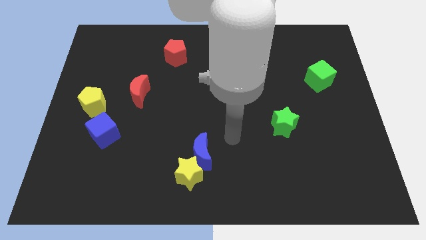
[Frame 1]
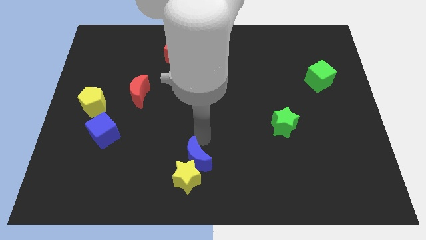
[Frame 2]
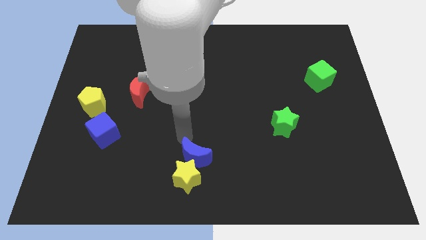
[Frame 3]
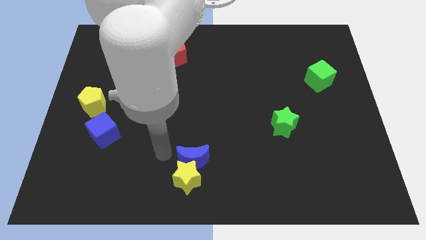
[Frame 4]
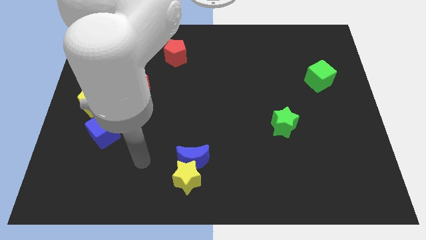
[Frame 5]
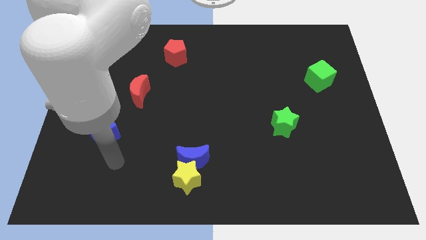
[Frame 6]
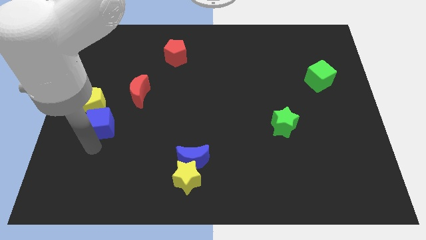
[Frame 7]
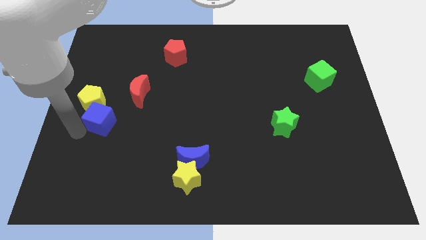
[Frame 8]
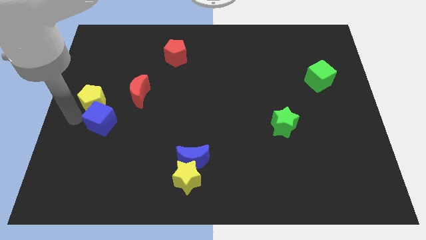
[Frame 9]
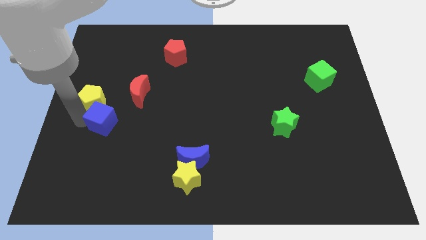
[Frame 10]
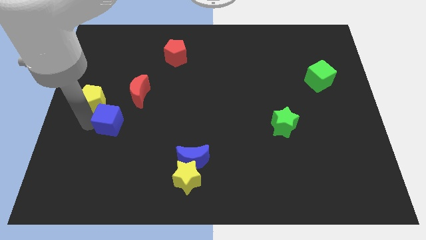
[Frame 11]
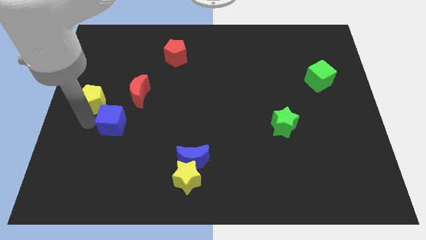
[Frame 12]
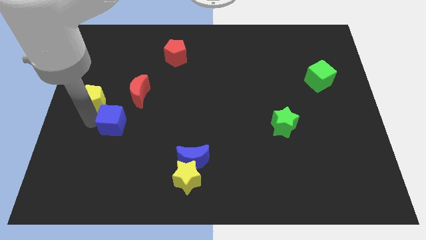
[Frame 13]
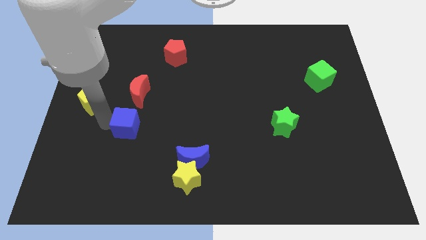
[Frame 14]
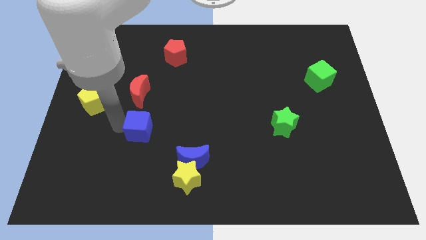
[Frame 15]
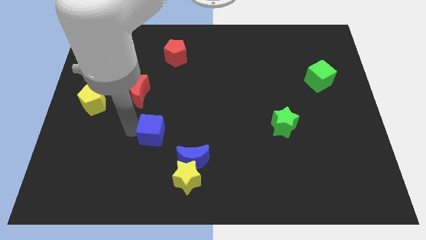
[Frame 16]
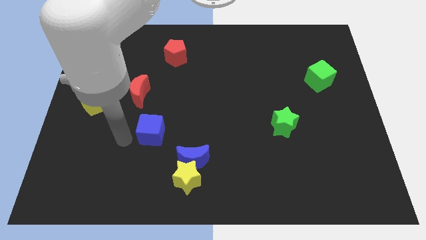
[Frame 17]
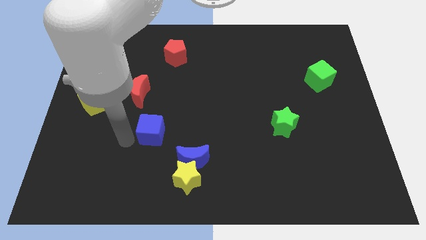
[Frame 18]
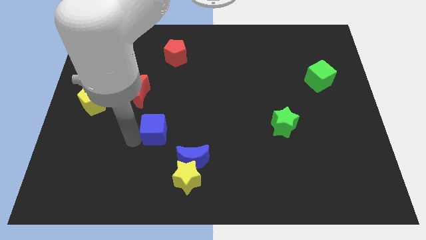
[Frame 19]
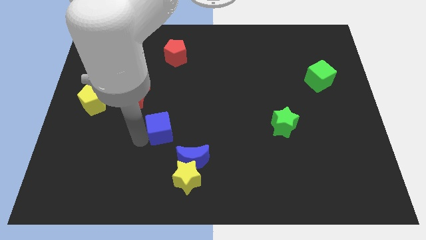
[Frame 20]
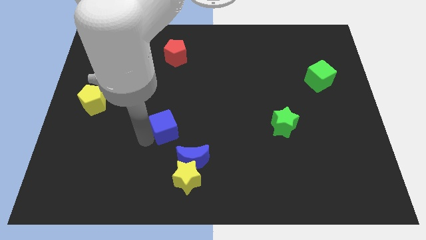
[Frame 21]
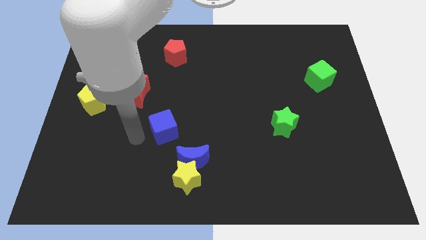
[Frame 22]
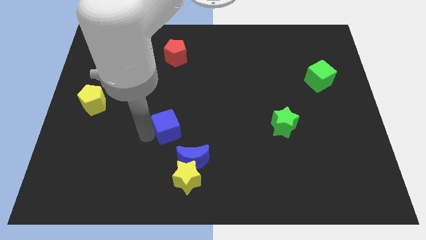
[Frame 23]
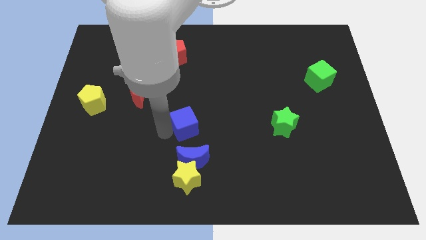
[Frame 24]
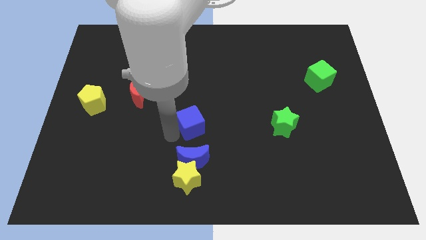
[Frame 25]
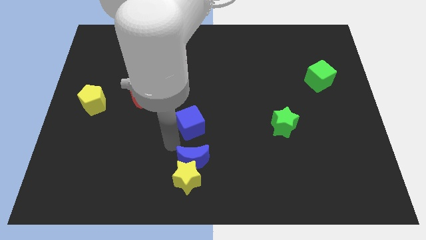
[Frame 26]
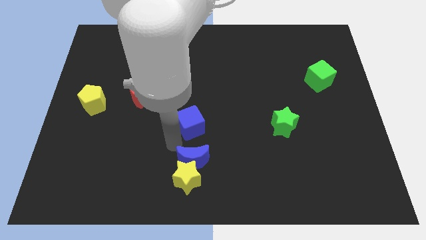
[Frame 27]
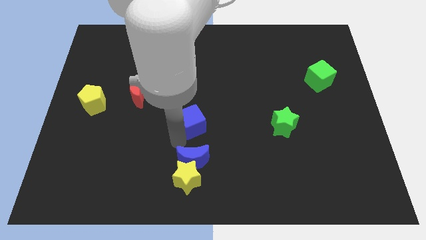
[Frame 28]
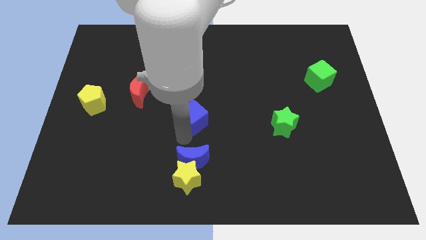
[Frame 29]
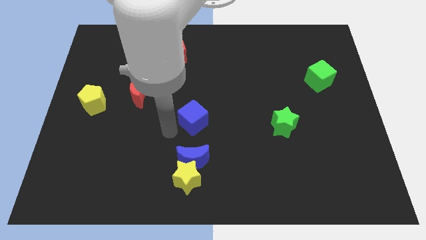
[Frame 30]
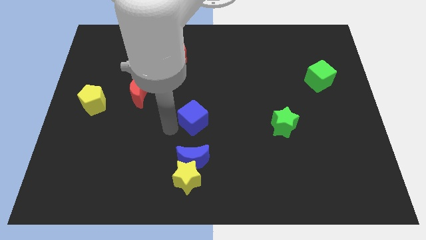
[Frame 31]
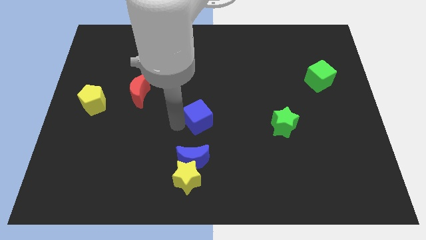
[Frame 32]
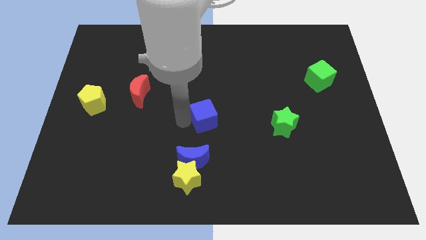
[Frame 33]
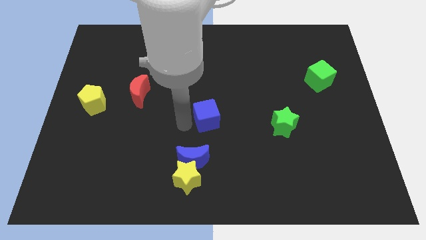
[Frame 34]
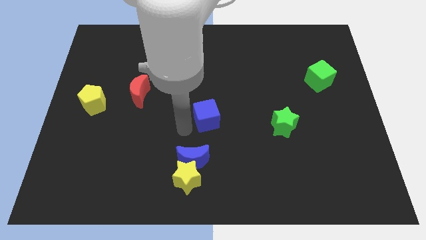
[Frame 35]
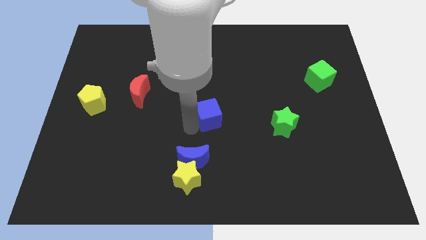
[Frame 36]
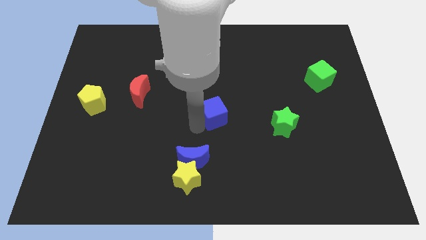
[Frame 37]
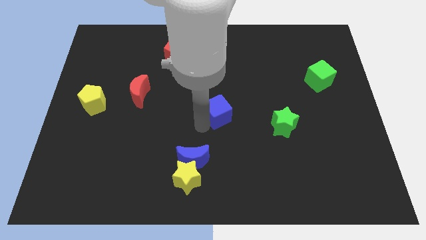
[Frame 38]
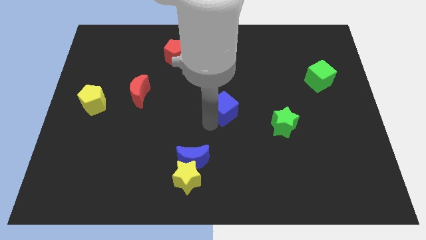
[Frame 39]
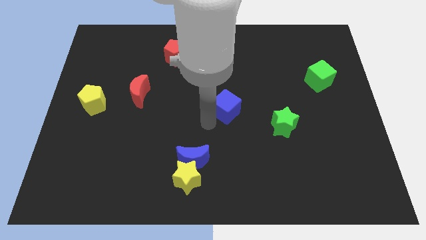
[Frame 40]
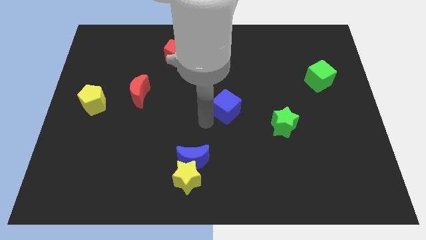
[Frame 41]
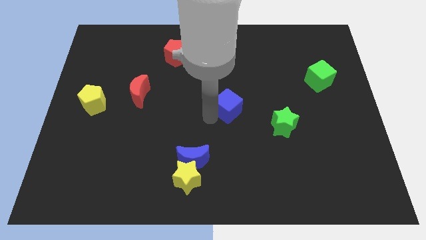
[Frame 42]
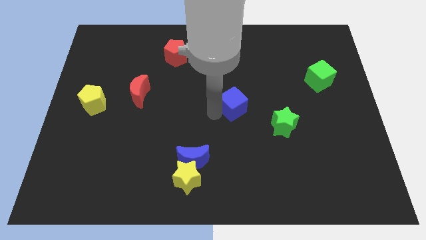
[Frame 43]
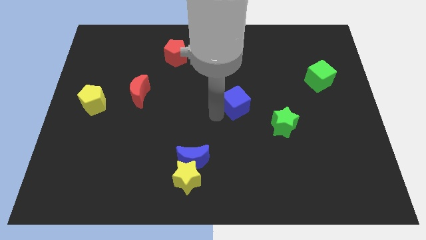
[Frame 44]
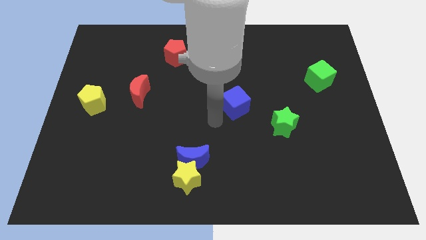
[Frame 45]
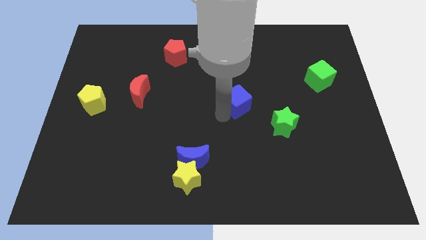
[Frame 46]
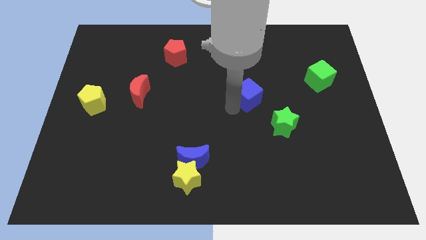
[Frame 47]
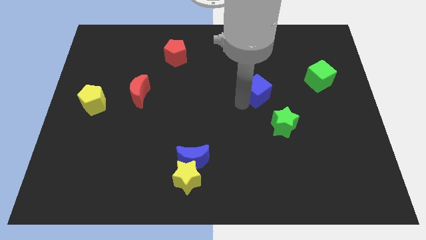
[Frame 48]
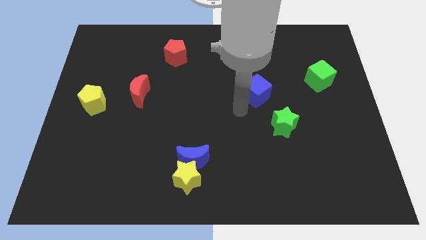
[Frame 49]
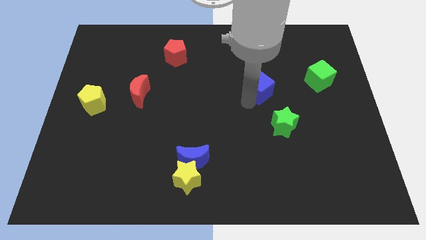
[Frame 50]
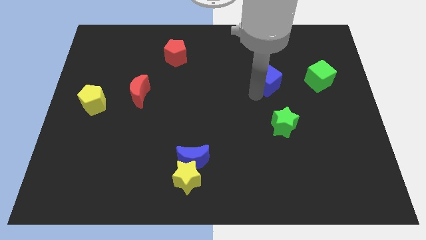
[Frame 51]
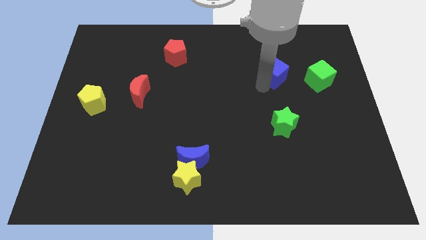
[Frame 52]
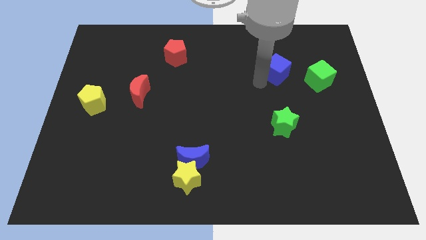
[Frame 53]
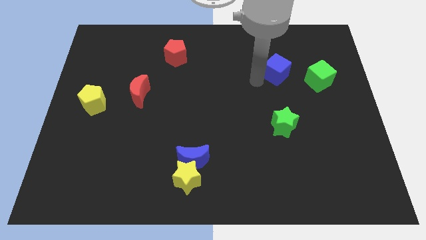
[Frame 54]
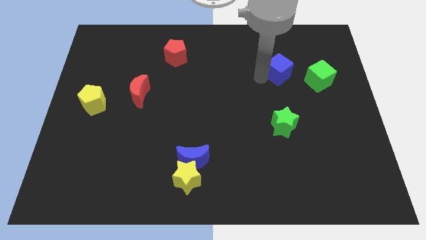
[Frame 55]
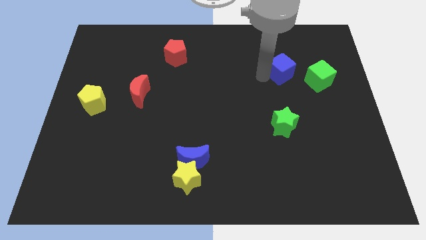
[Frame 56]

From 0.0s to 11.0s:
slide the blue cube to the top left side of the green cube

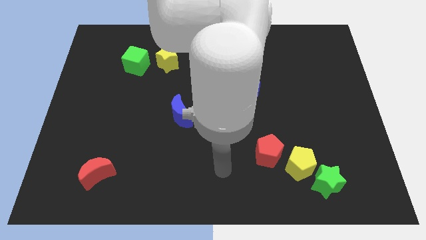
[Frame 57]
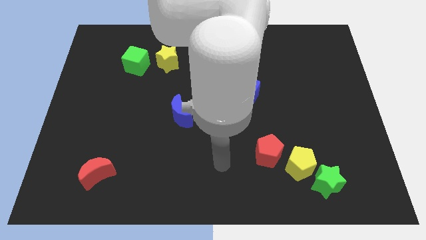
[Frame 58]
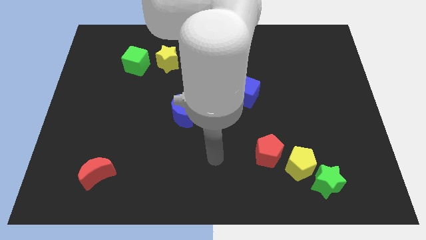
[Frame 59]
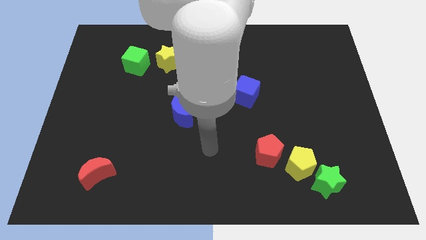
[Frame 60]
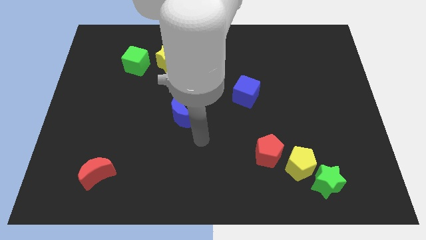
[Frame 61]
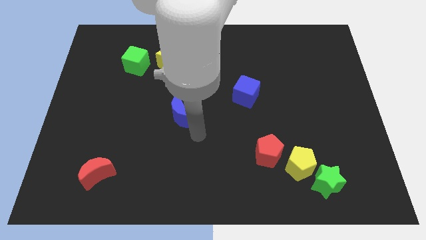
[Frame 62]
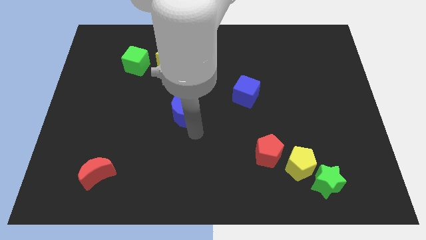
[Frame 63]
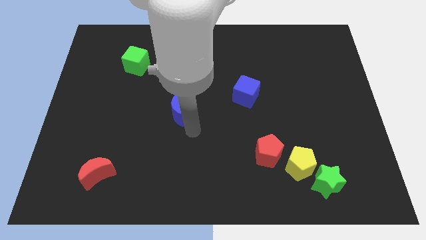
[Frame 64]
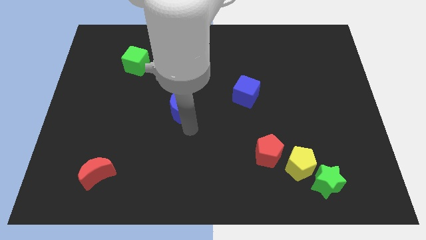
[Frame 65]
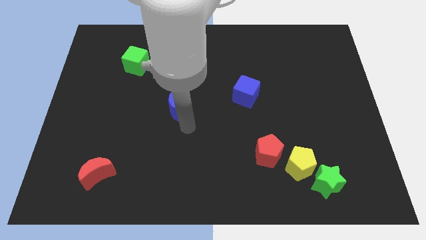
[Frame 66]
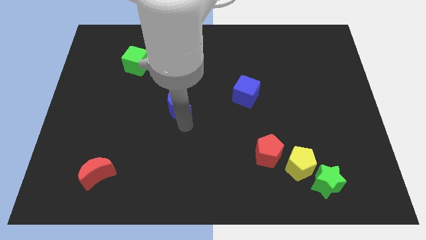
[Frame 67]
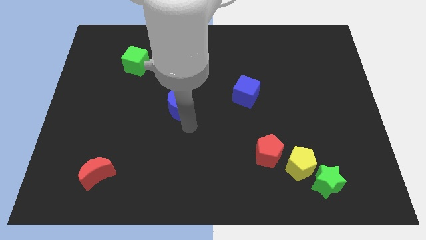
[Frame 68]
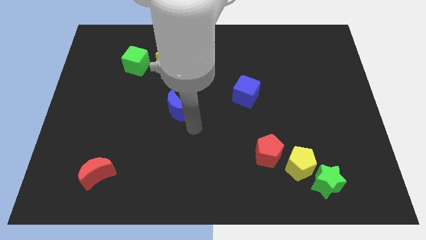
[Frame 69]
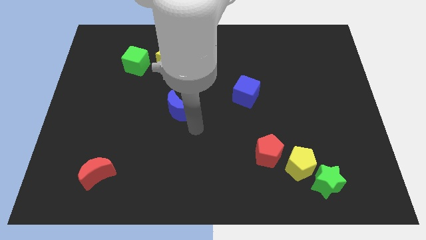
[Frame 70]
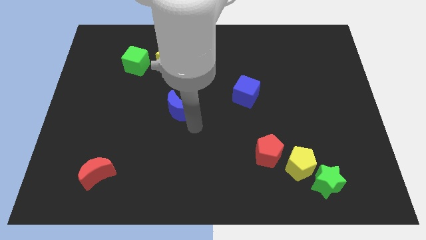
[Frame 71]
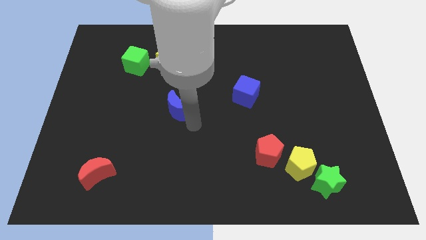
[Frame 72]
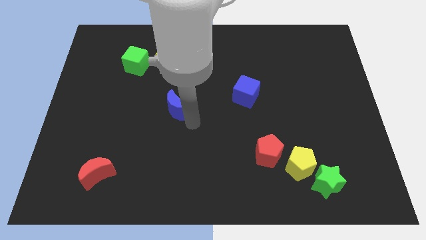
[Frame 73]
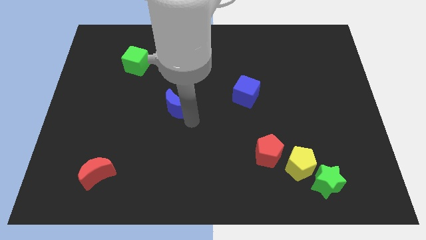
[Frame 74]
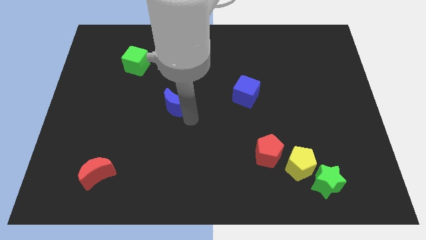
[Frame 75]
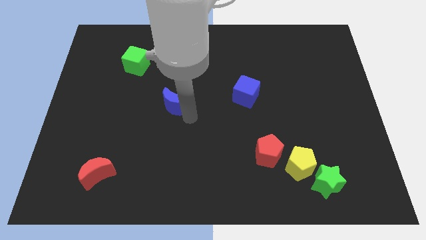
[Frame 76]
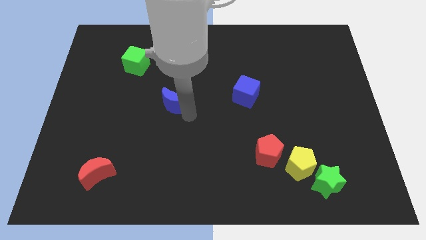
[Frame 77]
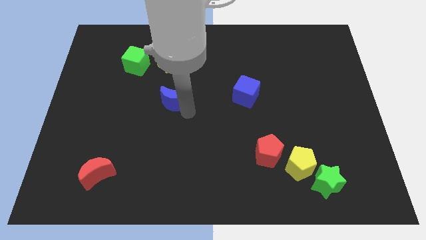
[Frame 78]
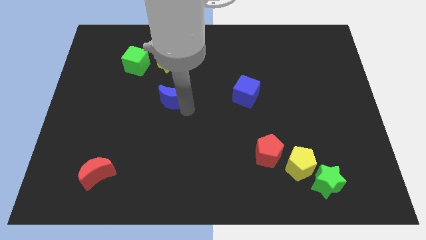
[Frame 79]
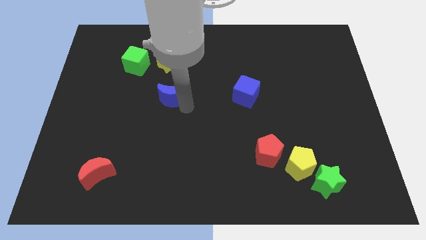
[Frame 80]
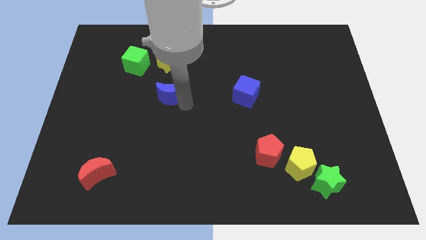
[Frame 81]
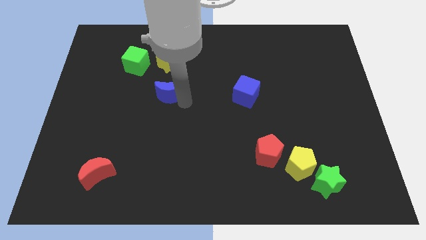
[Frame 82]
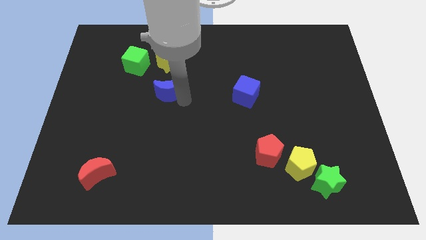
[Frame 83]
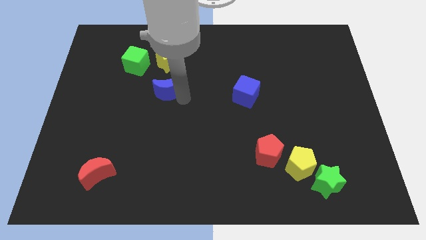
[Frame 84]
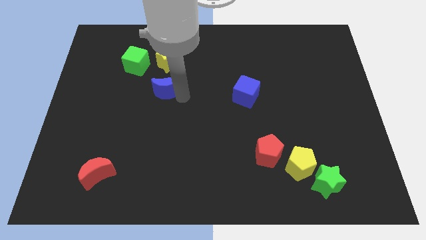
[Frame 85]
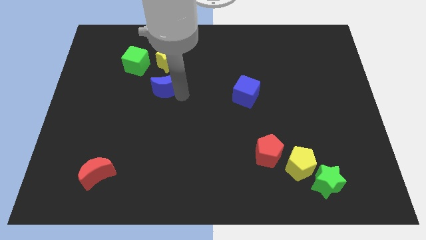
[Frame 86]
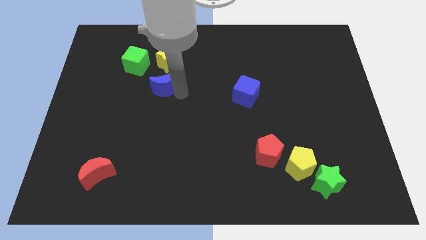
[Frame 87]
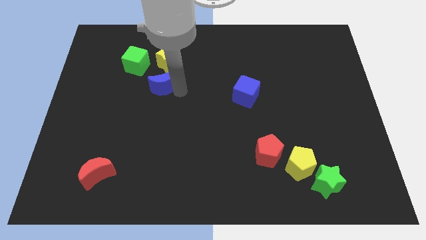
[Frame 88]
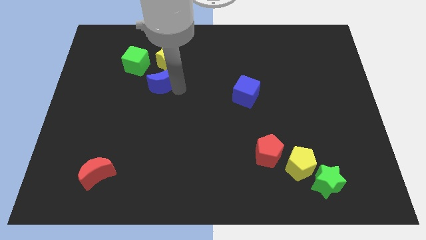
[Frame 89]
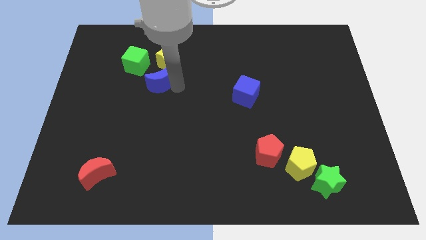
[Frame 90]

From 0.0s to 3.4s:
slide the blue moon to the bottom left of the yellow star
